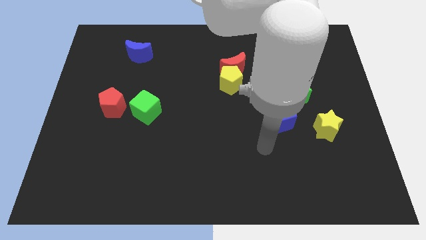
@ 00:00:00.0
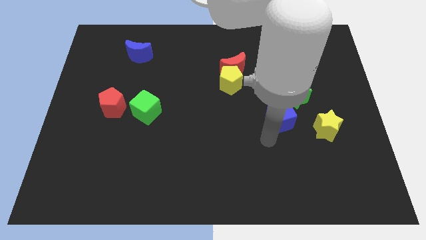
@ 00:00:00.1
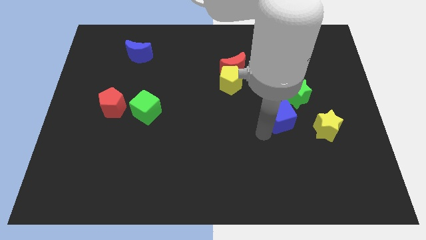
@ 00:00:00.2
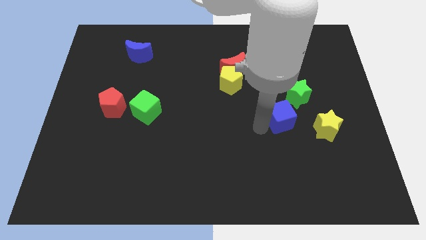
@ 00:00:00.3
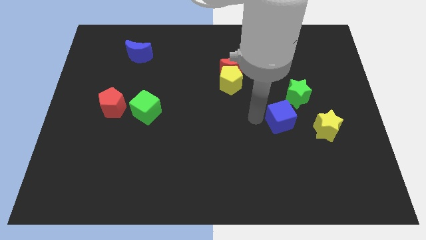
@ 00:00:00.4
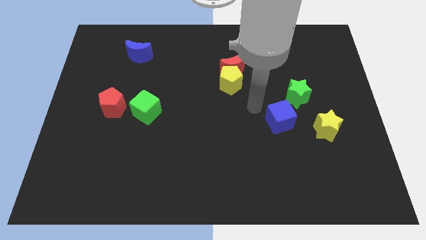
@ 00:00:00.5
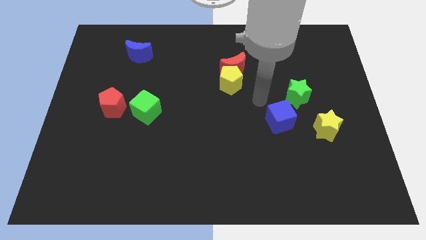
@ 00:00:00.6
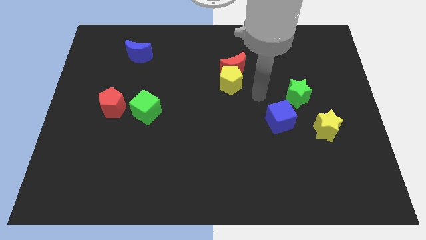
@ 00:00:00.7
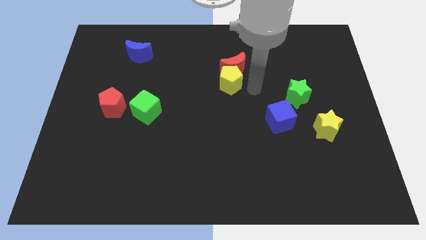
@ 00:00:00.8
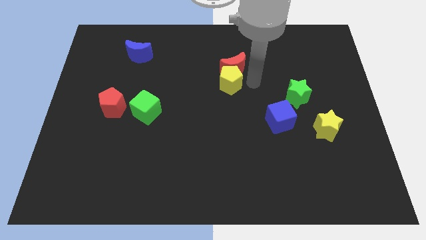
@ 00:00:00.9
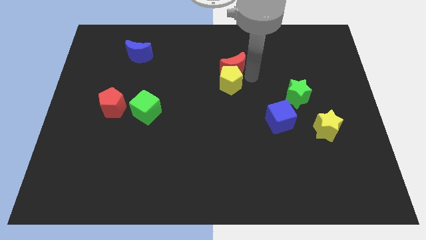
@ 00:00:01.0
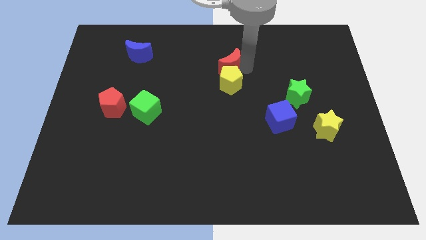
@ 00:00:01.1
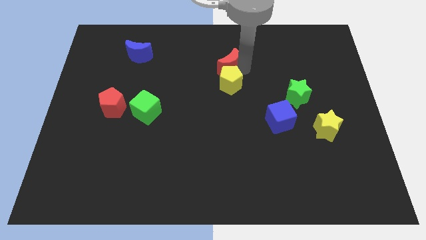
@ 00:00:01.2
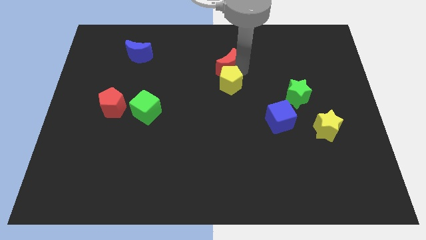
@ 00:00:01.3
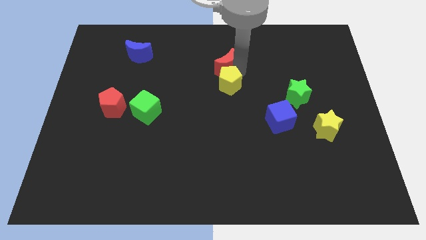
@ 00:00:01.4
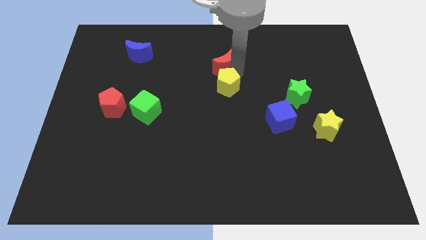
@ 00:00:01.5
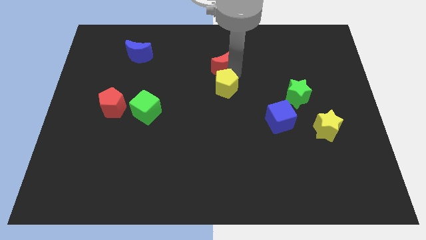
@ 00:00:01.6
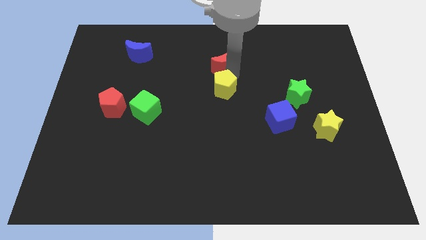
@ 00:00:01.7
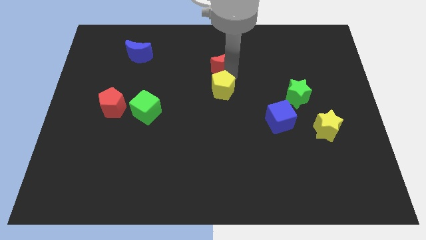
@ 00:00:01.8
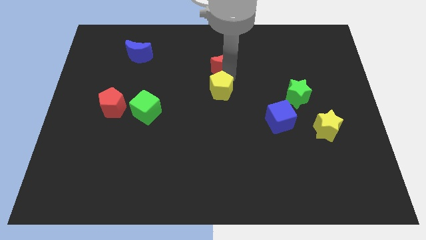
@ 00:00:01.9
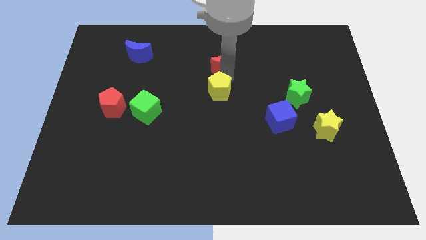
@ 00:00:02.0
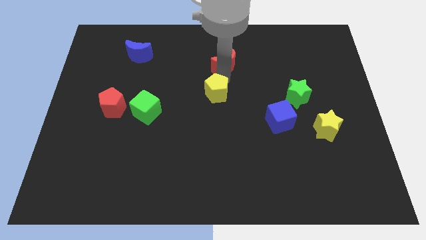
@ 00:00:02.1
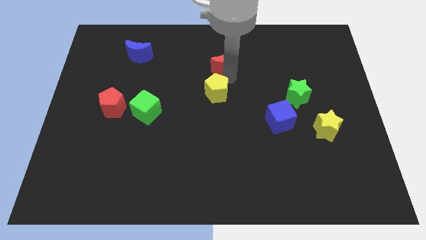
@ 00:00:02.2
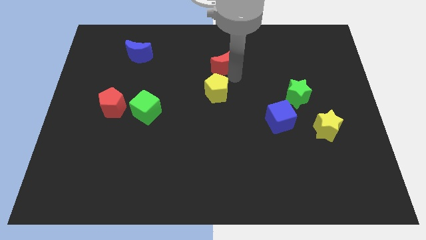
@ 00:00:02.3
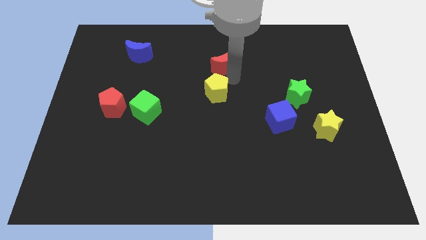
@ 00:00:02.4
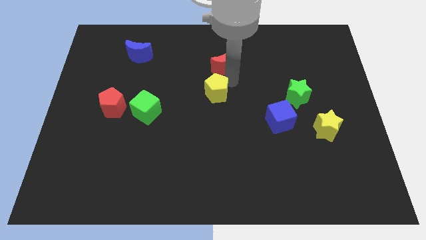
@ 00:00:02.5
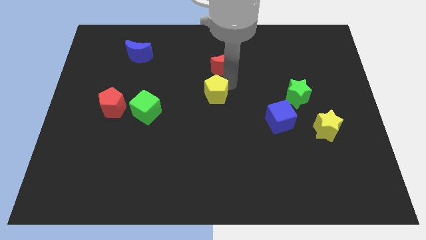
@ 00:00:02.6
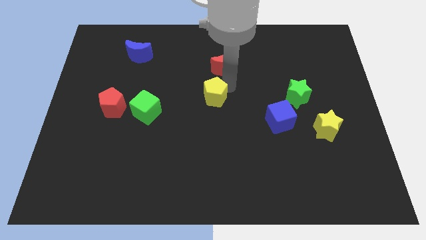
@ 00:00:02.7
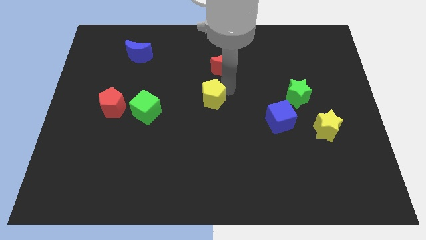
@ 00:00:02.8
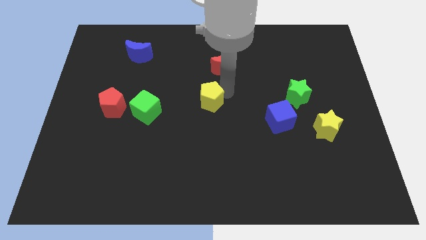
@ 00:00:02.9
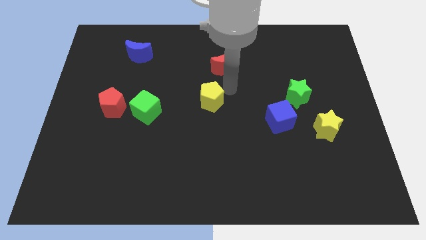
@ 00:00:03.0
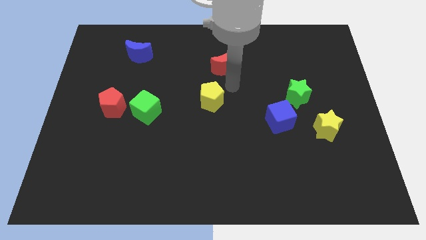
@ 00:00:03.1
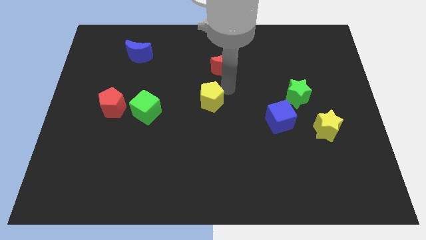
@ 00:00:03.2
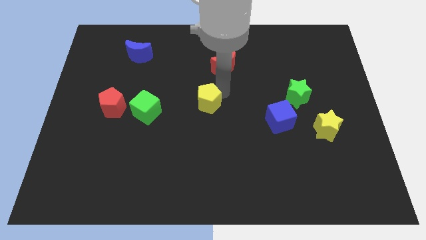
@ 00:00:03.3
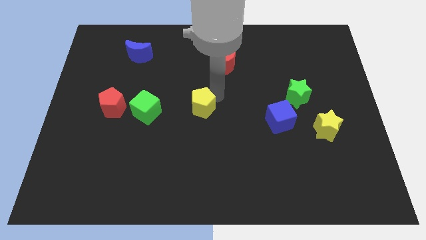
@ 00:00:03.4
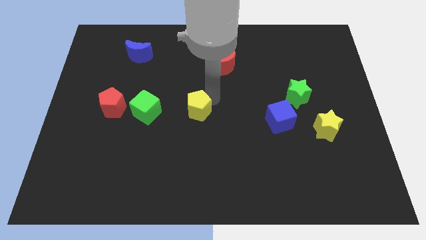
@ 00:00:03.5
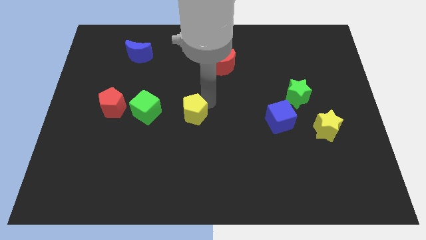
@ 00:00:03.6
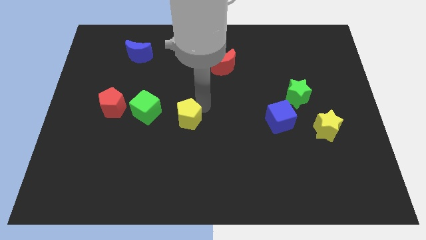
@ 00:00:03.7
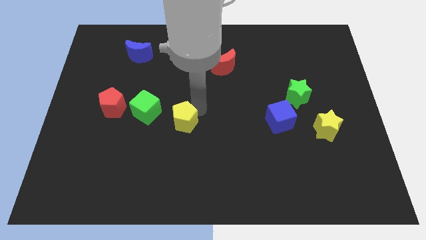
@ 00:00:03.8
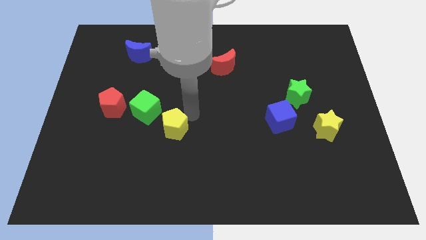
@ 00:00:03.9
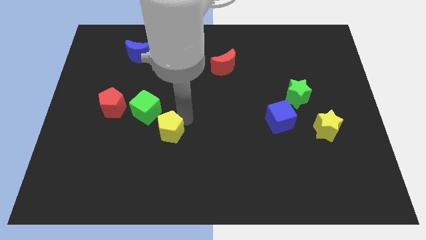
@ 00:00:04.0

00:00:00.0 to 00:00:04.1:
push the yellow pentagon downwards and left diagonally

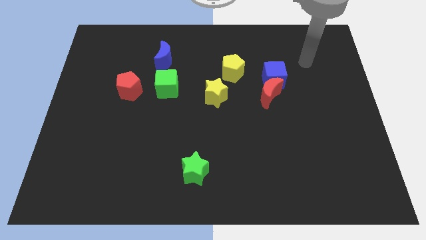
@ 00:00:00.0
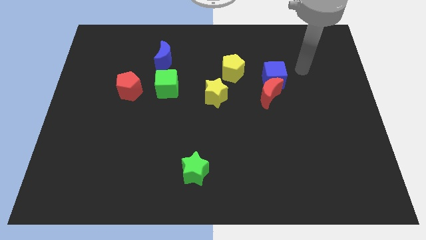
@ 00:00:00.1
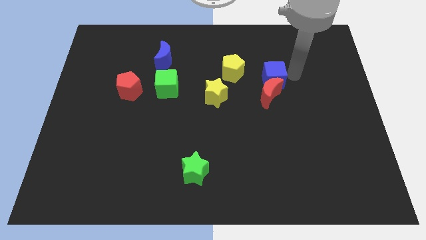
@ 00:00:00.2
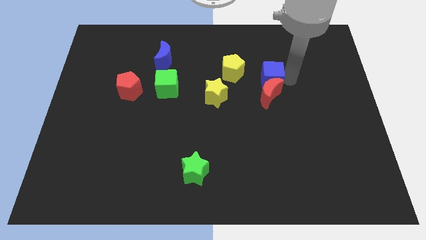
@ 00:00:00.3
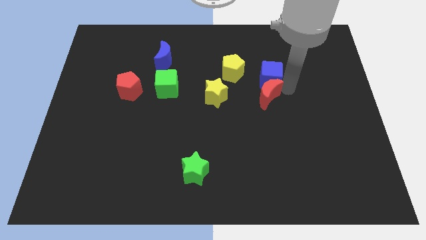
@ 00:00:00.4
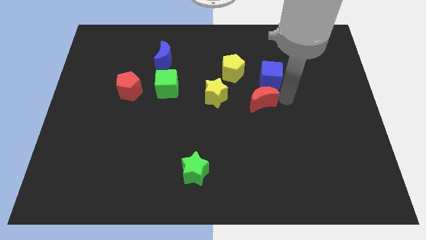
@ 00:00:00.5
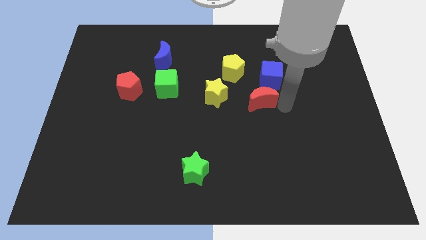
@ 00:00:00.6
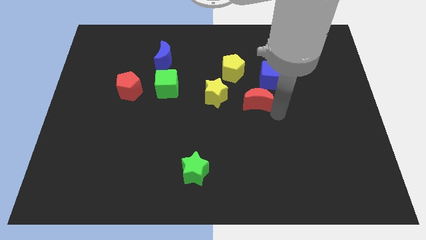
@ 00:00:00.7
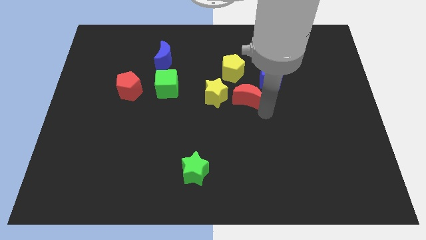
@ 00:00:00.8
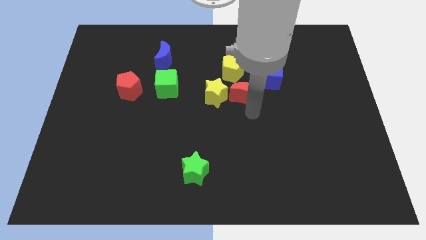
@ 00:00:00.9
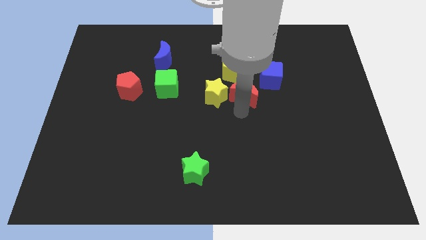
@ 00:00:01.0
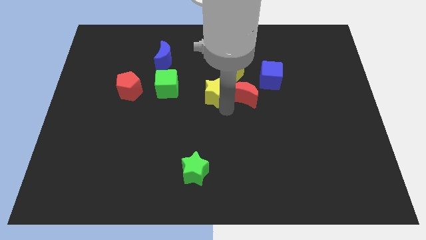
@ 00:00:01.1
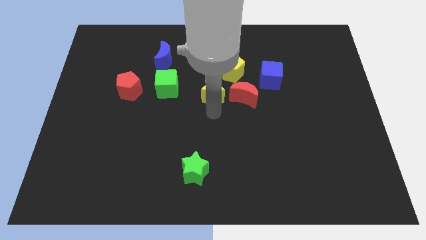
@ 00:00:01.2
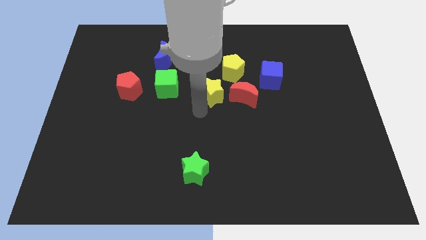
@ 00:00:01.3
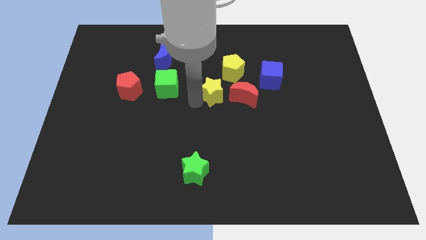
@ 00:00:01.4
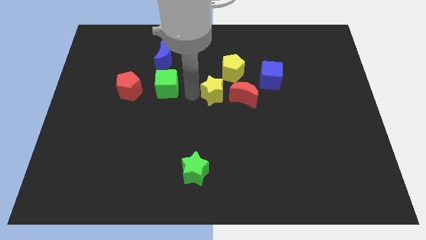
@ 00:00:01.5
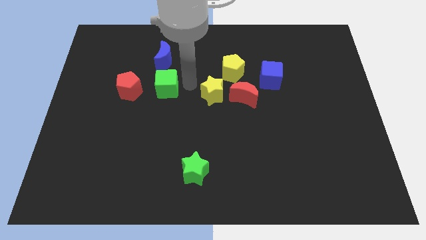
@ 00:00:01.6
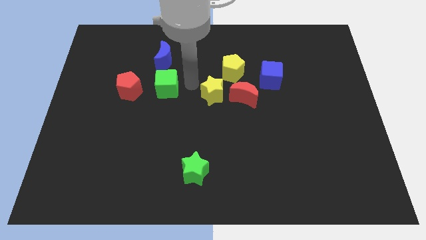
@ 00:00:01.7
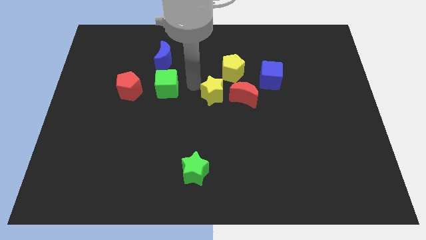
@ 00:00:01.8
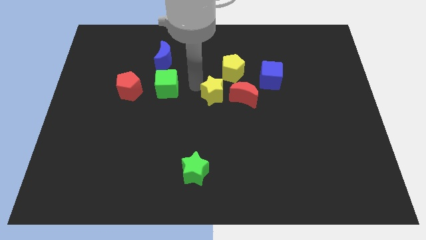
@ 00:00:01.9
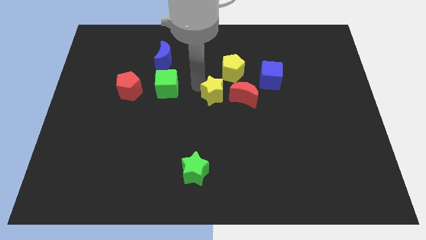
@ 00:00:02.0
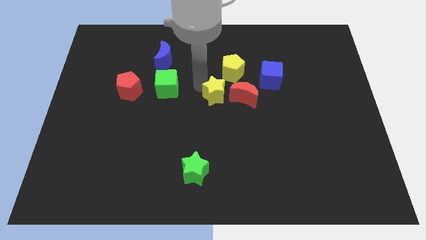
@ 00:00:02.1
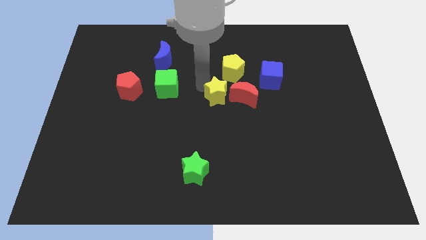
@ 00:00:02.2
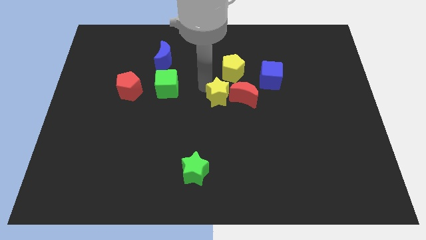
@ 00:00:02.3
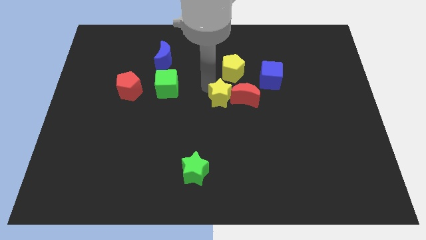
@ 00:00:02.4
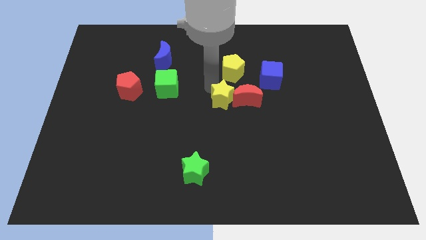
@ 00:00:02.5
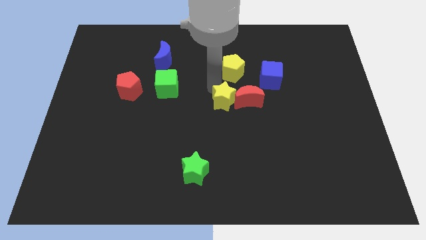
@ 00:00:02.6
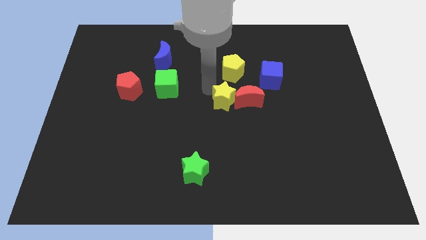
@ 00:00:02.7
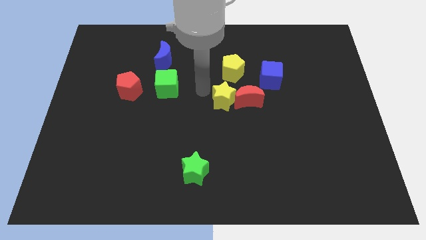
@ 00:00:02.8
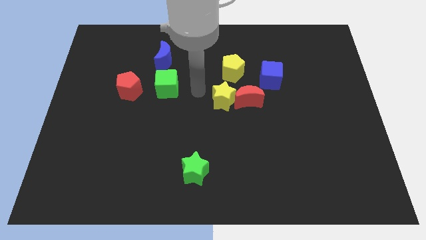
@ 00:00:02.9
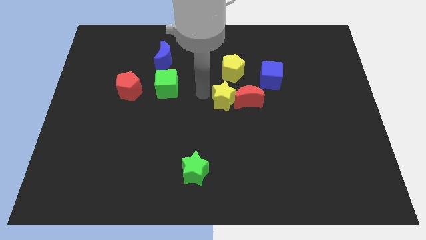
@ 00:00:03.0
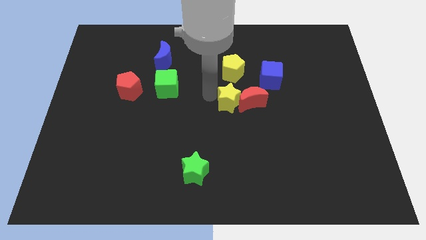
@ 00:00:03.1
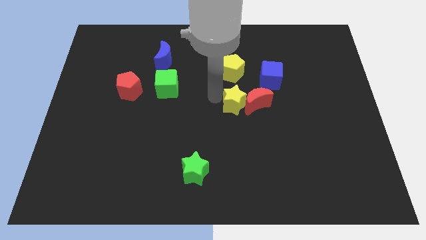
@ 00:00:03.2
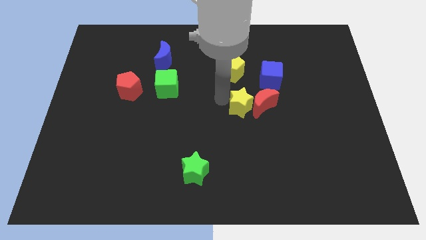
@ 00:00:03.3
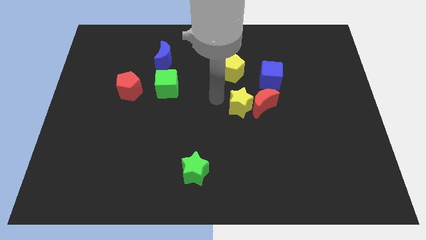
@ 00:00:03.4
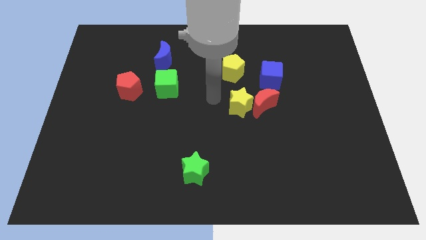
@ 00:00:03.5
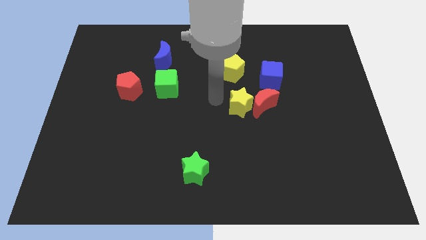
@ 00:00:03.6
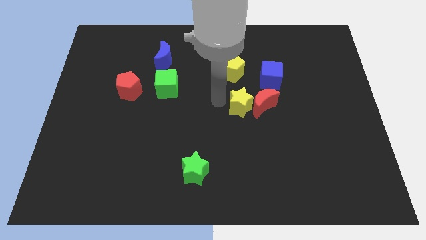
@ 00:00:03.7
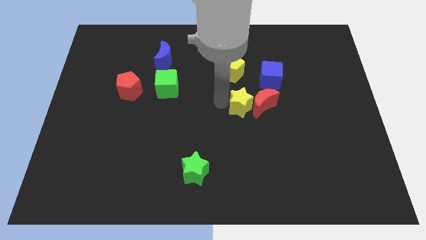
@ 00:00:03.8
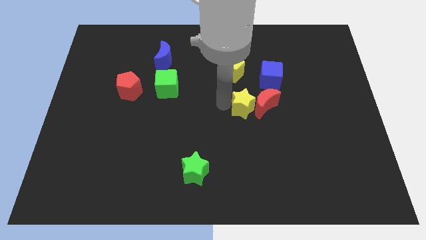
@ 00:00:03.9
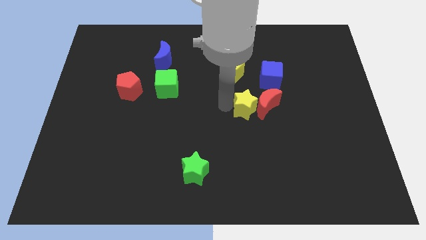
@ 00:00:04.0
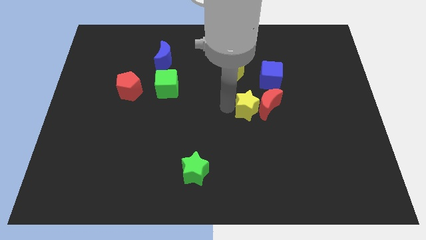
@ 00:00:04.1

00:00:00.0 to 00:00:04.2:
slightly push the yellow star to the right
